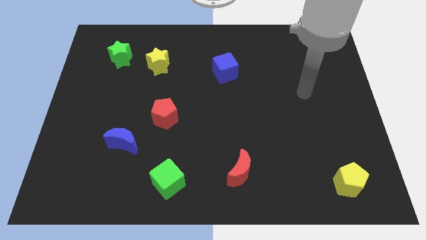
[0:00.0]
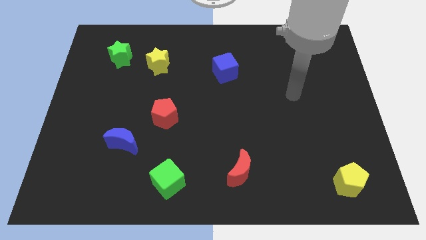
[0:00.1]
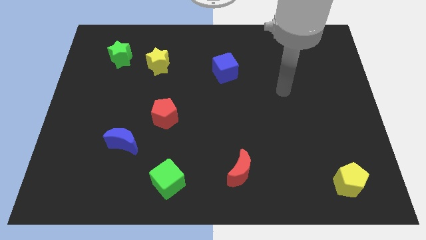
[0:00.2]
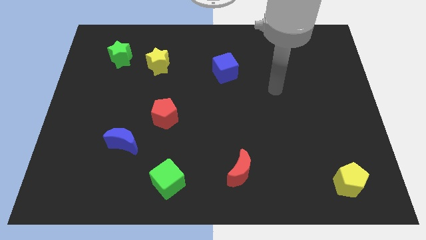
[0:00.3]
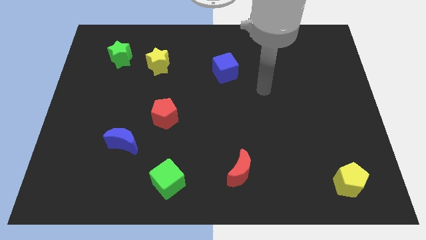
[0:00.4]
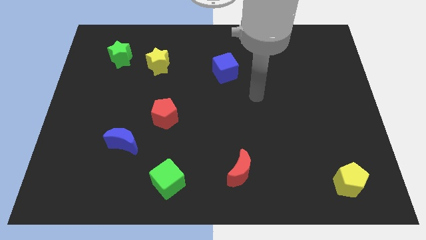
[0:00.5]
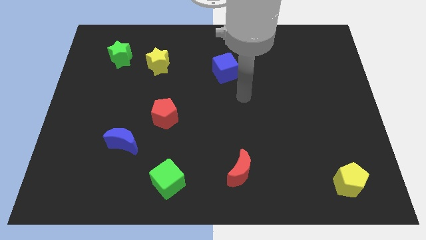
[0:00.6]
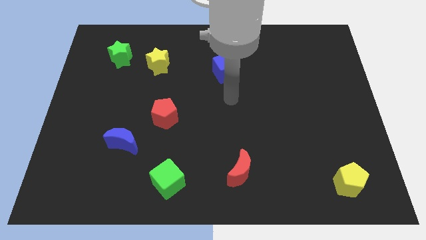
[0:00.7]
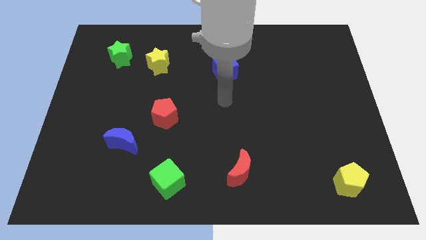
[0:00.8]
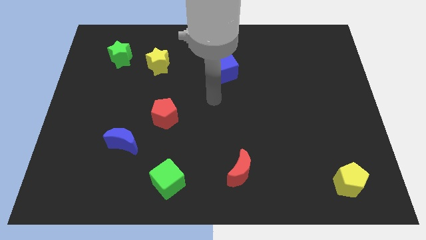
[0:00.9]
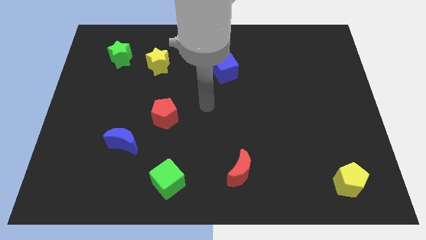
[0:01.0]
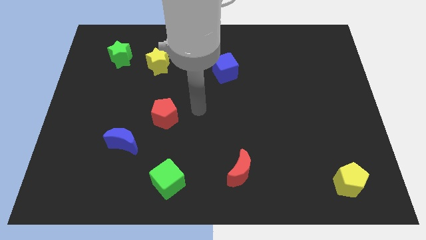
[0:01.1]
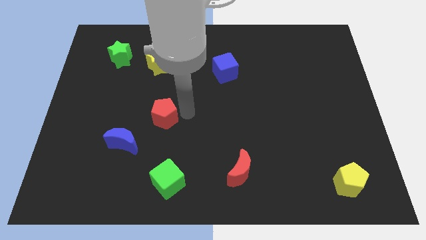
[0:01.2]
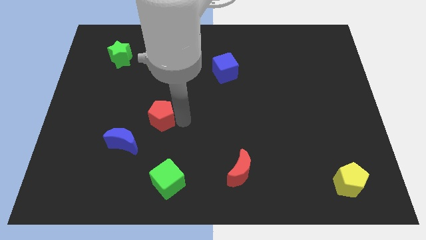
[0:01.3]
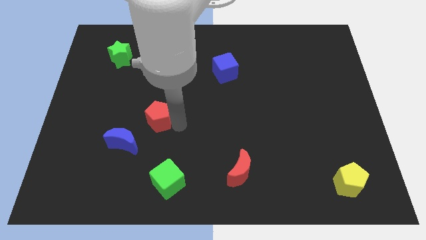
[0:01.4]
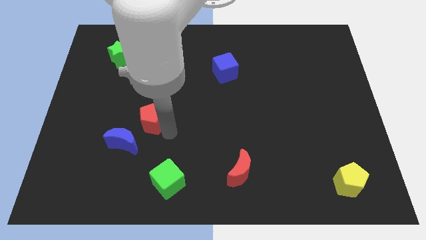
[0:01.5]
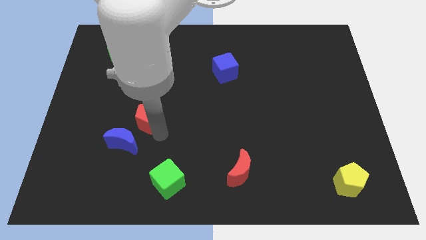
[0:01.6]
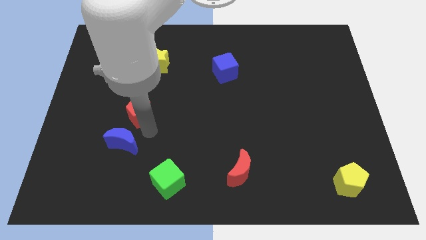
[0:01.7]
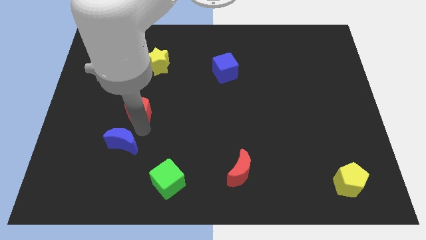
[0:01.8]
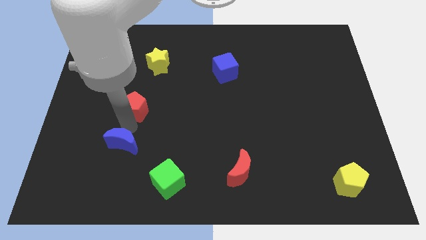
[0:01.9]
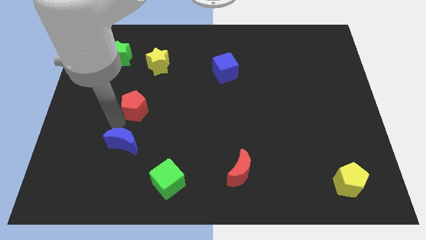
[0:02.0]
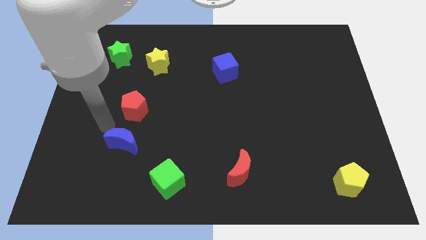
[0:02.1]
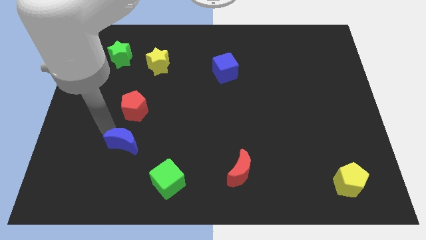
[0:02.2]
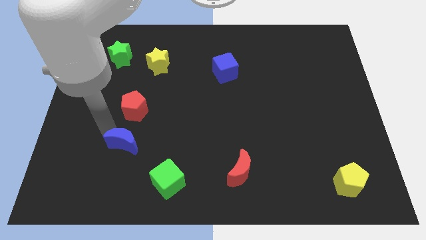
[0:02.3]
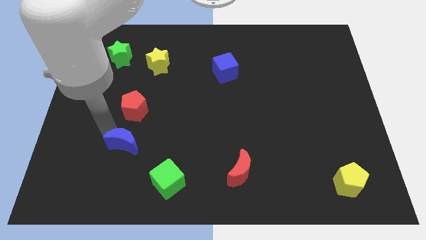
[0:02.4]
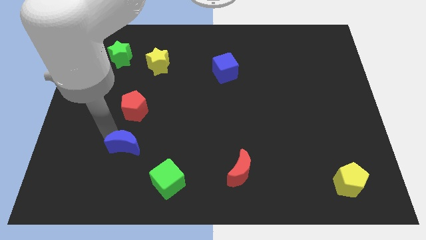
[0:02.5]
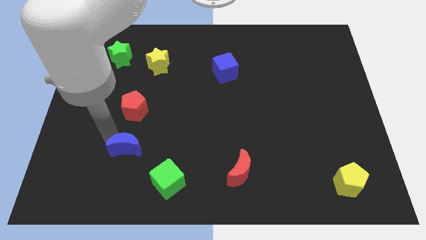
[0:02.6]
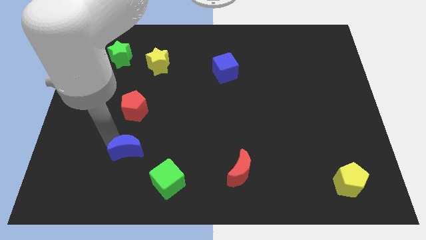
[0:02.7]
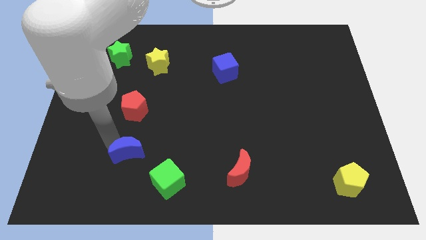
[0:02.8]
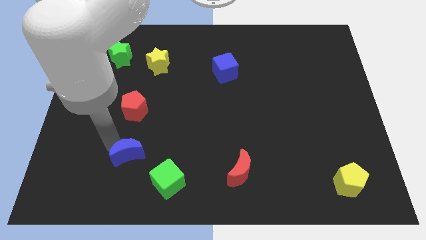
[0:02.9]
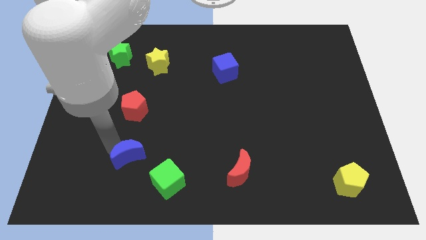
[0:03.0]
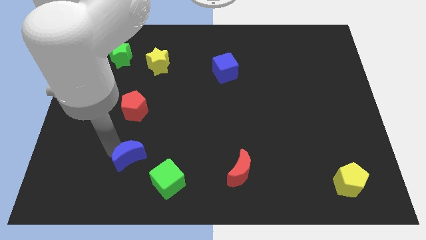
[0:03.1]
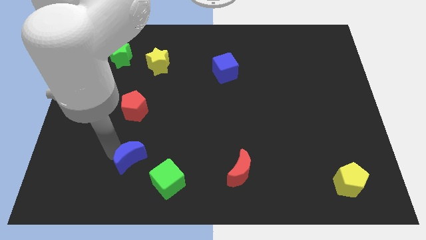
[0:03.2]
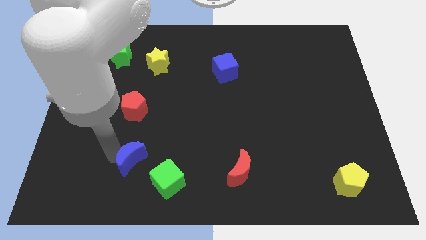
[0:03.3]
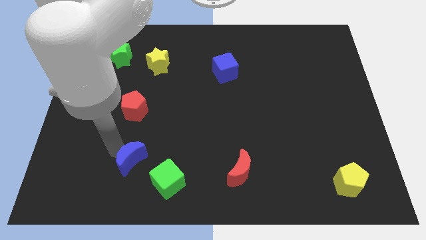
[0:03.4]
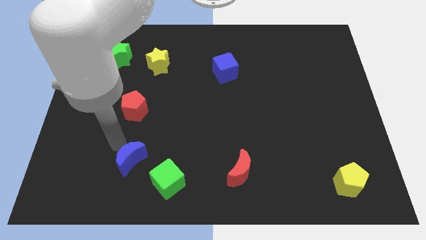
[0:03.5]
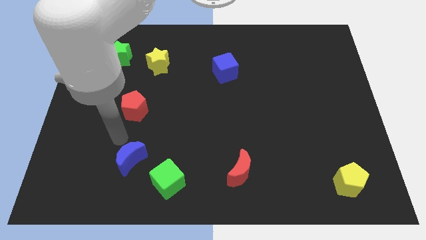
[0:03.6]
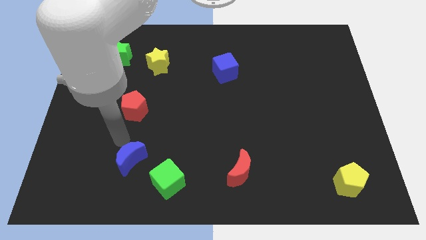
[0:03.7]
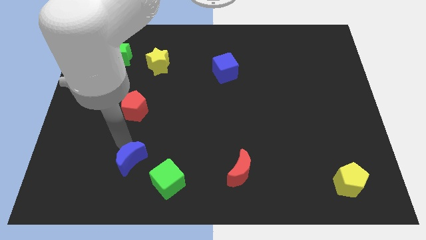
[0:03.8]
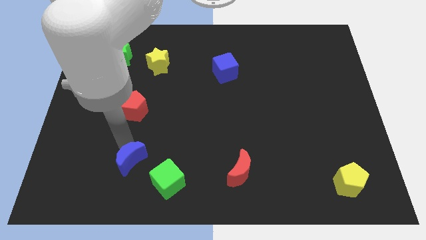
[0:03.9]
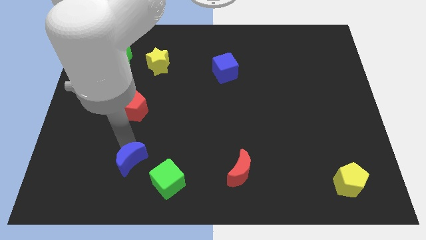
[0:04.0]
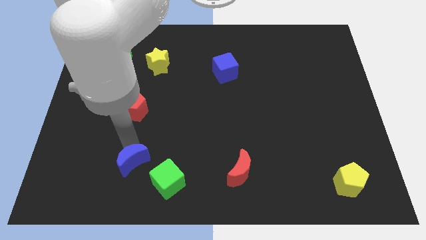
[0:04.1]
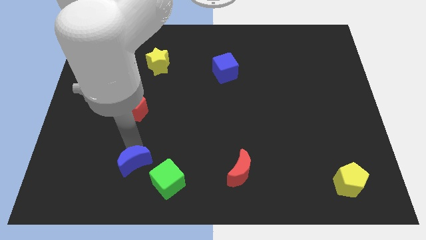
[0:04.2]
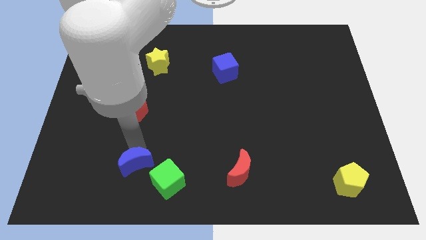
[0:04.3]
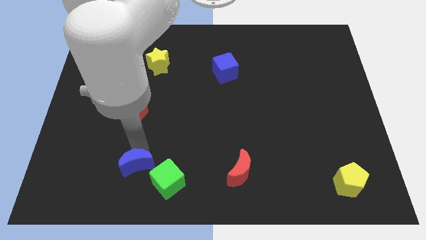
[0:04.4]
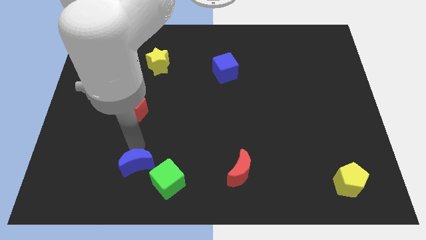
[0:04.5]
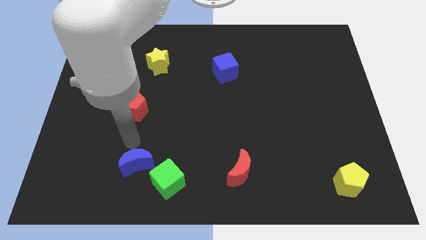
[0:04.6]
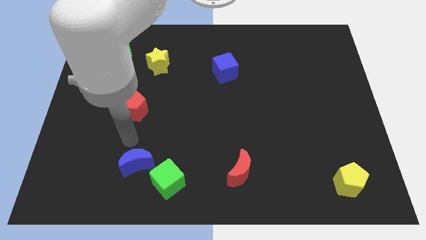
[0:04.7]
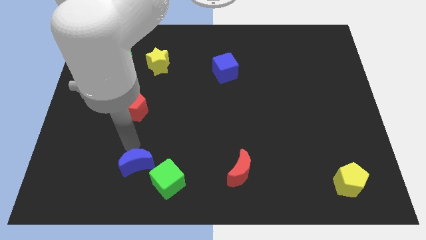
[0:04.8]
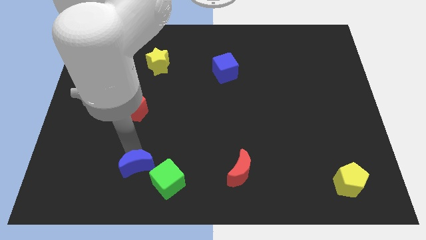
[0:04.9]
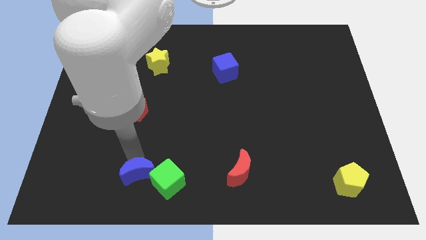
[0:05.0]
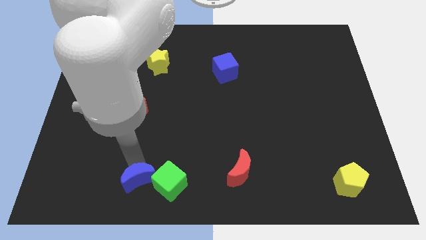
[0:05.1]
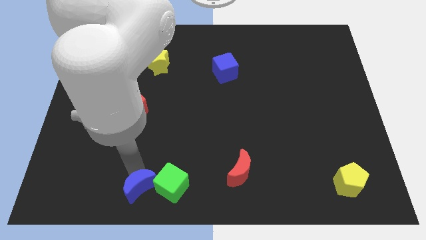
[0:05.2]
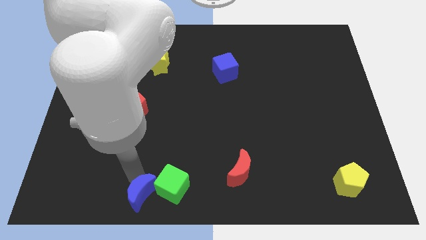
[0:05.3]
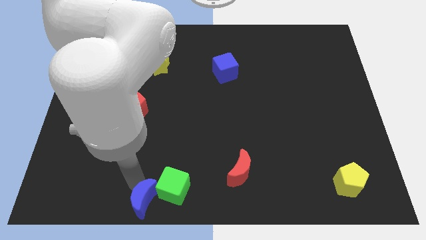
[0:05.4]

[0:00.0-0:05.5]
move the blue moon to the bottom side
